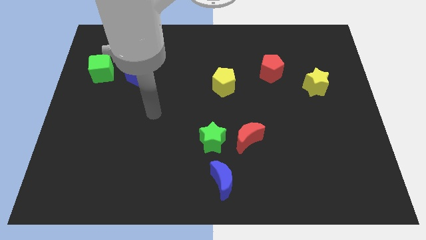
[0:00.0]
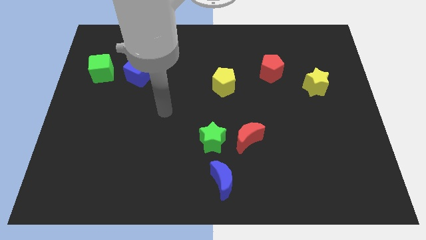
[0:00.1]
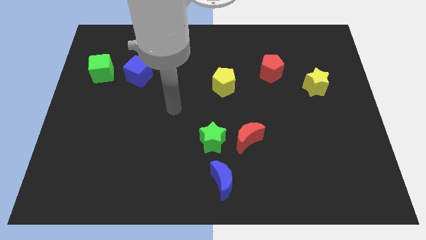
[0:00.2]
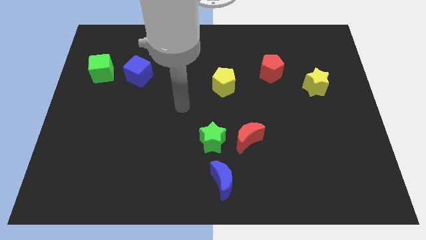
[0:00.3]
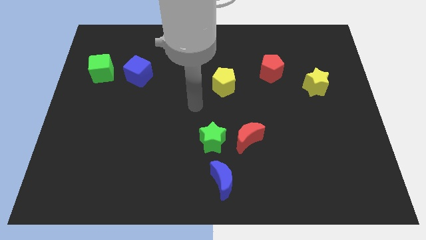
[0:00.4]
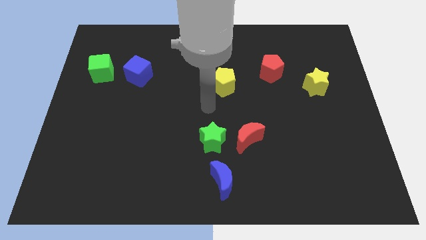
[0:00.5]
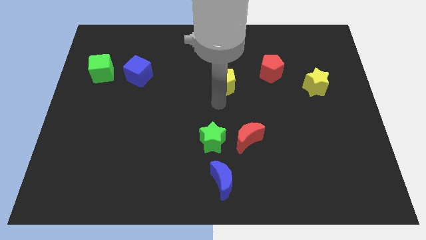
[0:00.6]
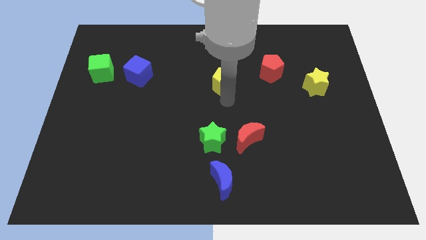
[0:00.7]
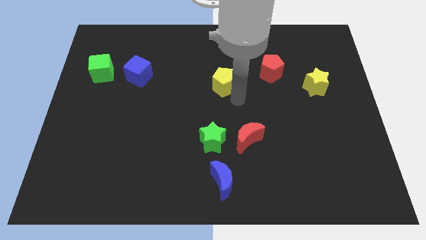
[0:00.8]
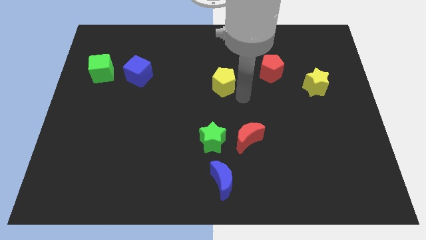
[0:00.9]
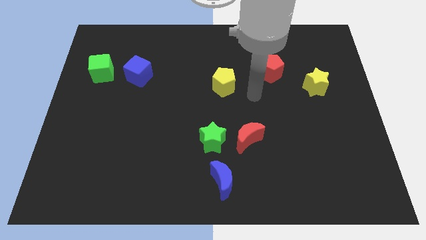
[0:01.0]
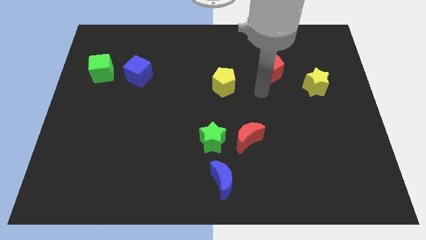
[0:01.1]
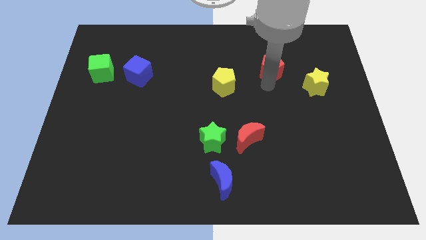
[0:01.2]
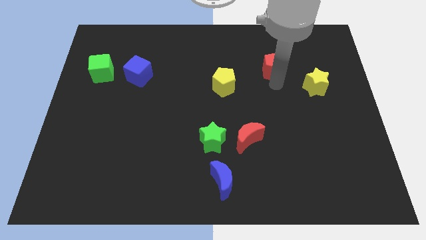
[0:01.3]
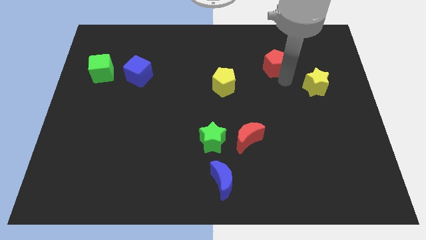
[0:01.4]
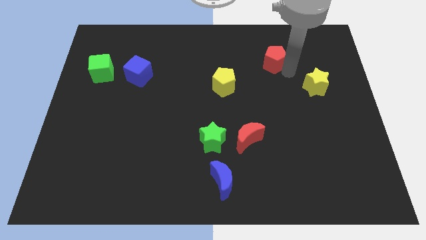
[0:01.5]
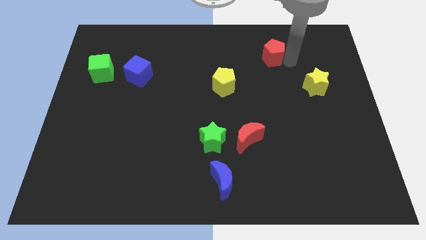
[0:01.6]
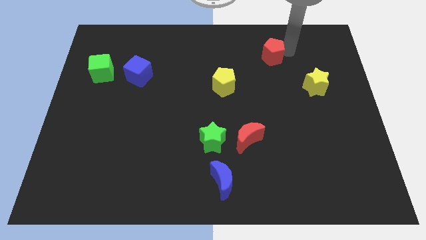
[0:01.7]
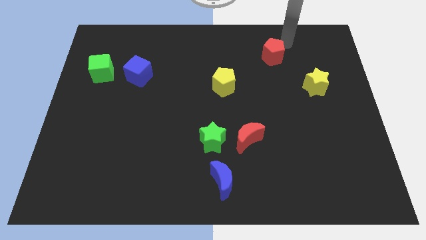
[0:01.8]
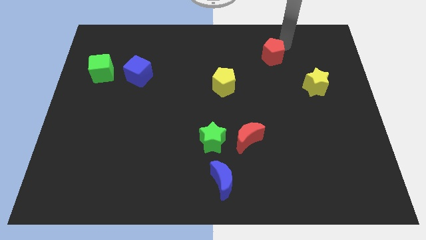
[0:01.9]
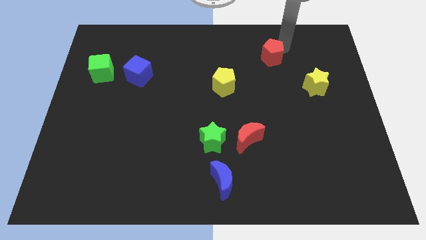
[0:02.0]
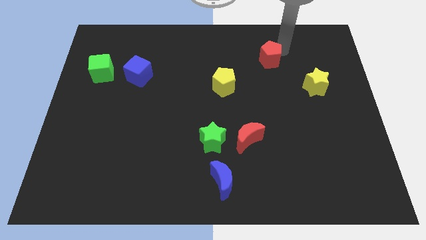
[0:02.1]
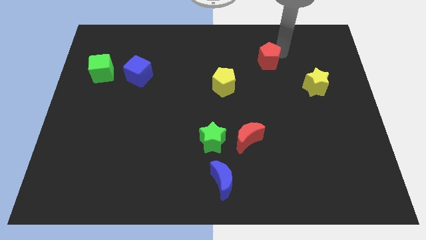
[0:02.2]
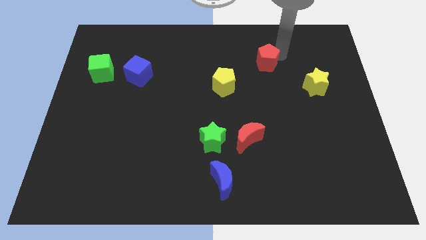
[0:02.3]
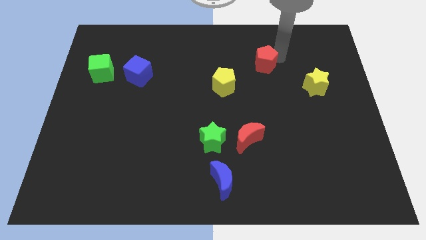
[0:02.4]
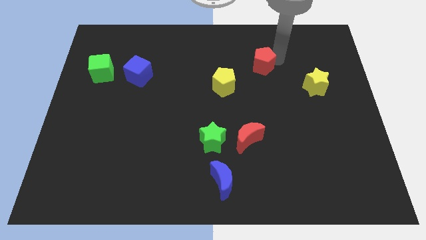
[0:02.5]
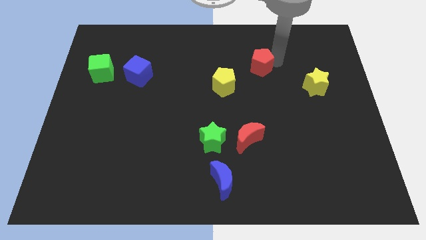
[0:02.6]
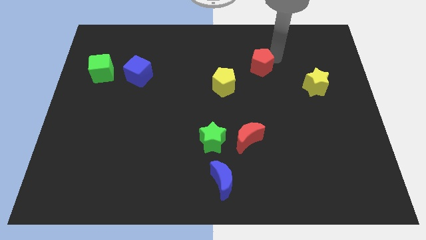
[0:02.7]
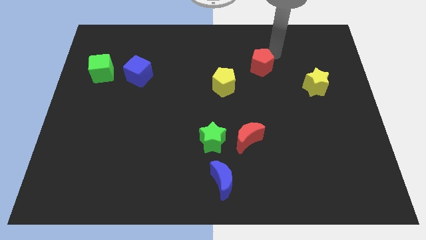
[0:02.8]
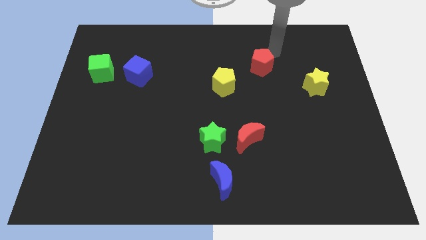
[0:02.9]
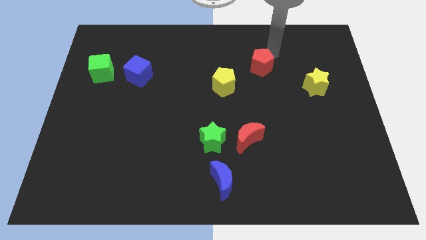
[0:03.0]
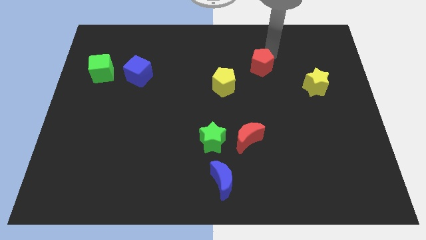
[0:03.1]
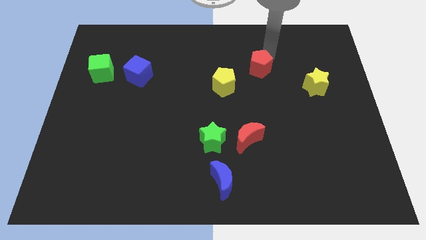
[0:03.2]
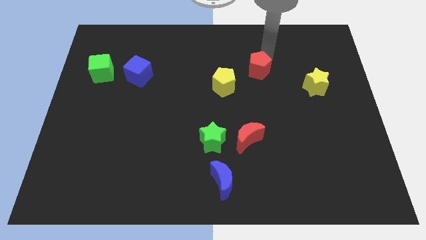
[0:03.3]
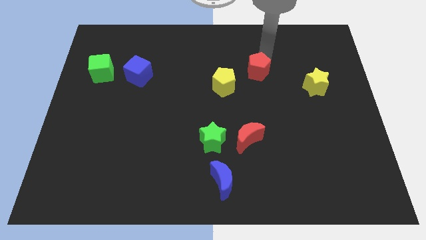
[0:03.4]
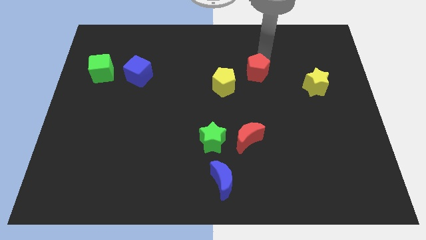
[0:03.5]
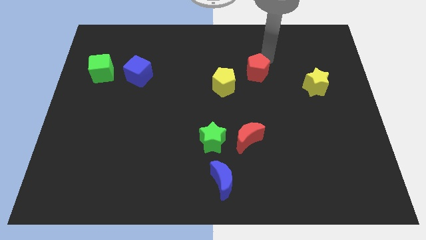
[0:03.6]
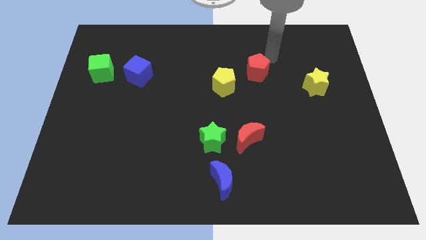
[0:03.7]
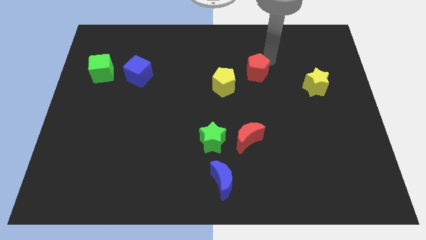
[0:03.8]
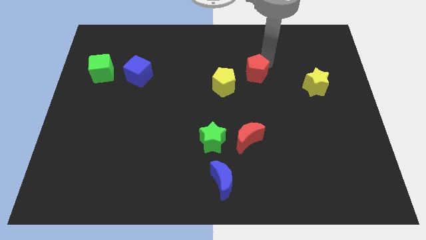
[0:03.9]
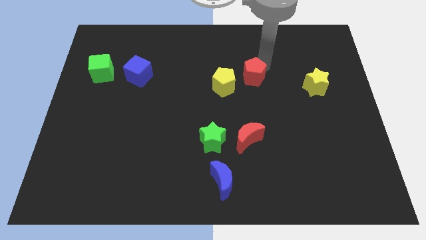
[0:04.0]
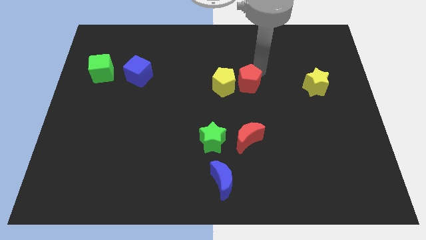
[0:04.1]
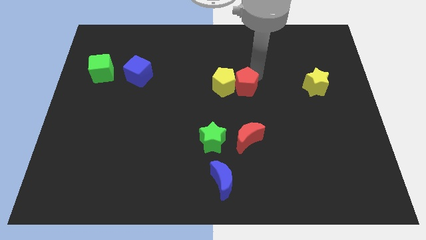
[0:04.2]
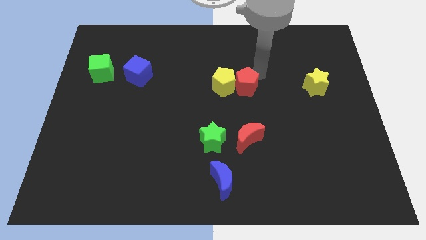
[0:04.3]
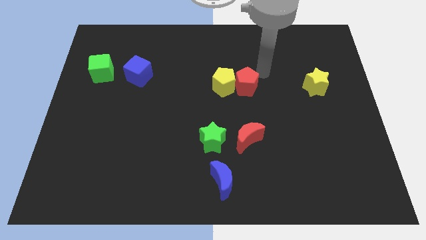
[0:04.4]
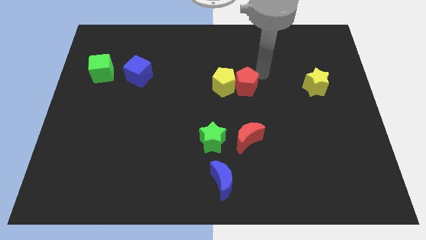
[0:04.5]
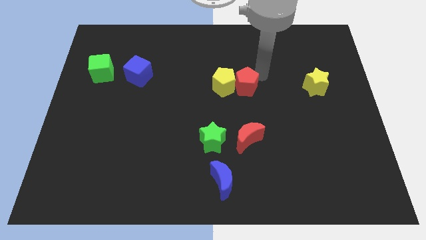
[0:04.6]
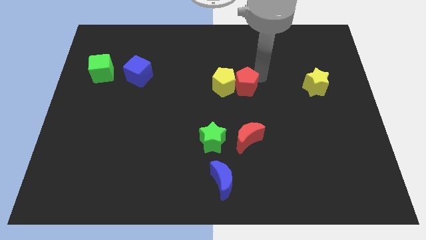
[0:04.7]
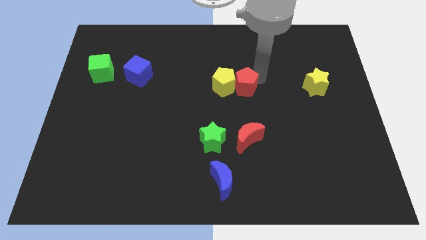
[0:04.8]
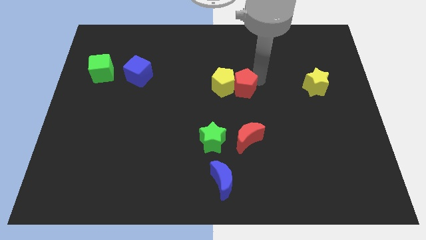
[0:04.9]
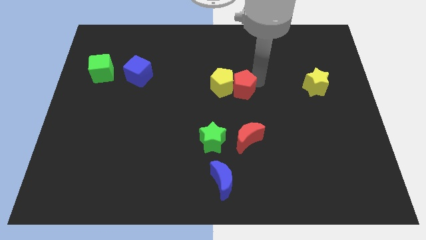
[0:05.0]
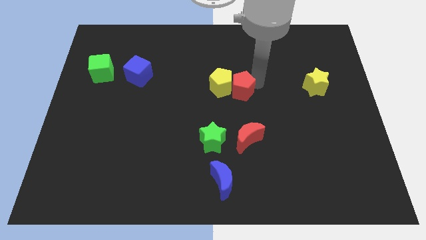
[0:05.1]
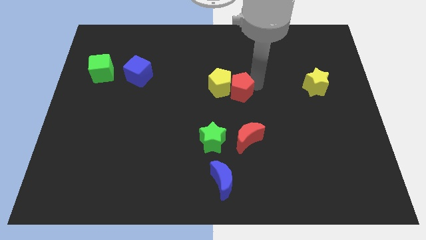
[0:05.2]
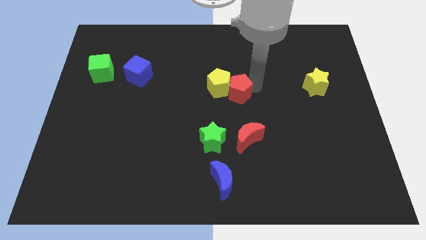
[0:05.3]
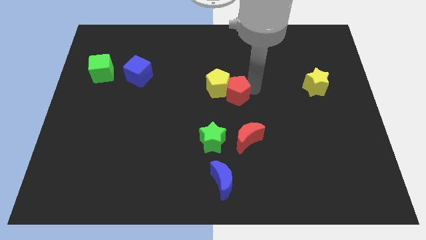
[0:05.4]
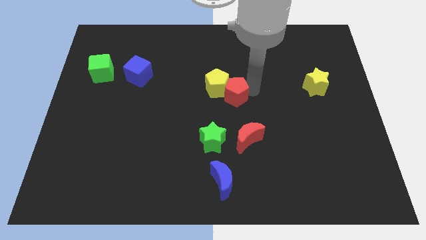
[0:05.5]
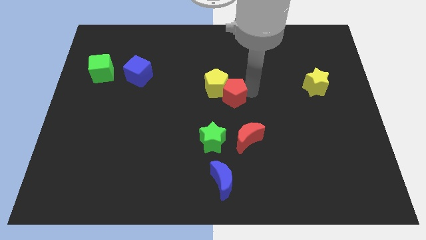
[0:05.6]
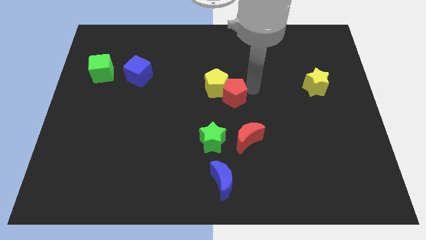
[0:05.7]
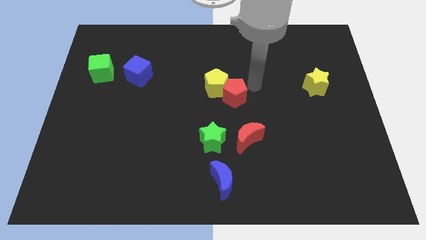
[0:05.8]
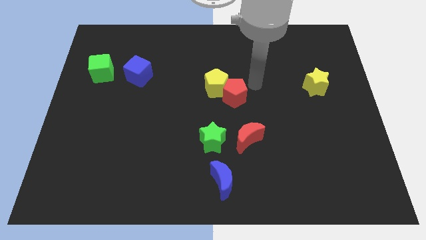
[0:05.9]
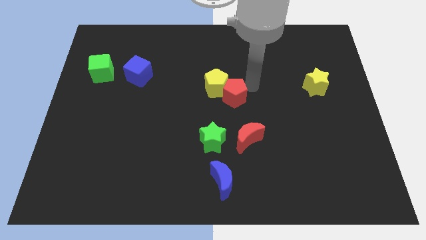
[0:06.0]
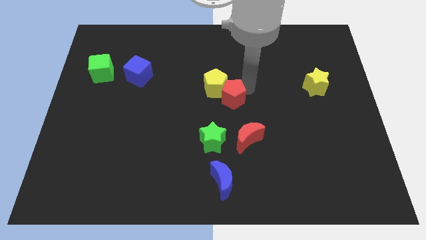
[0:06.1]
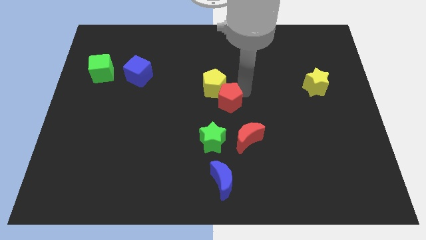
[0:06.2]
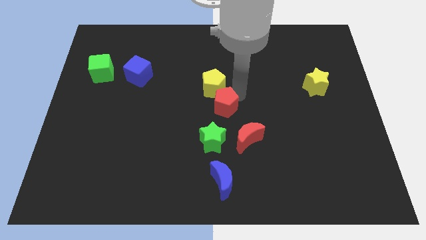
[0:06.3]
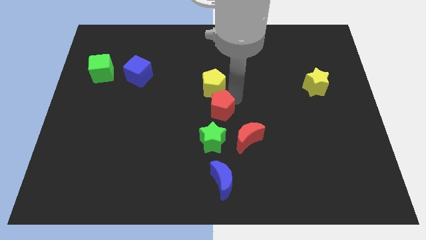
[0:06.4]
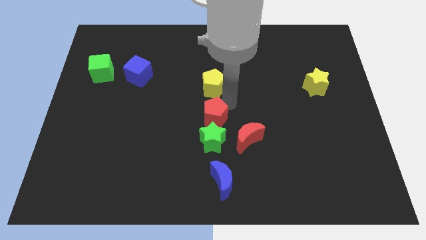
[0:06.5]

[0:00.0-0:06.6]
slide the red pentagon down and to the left

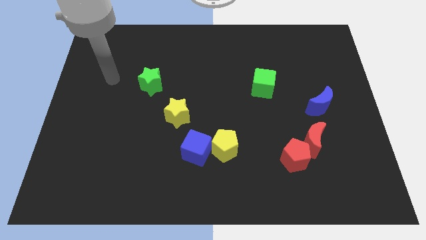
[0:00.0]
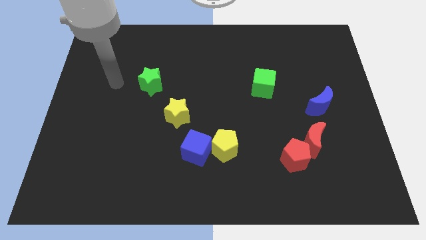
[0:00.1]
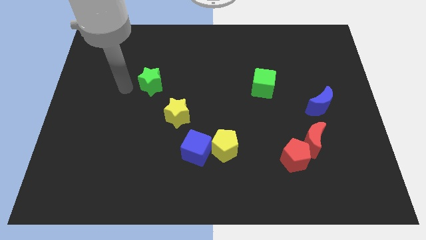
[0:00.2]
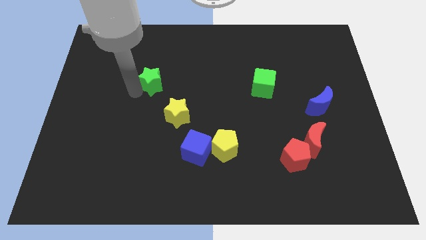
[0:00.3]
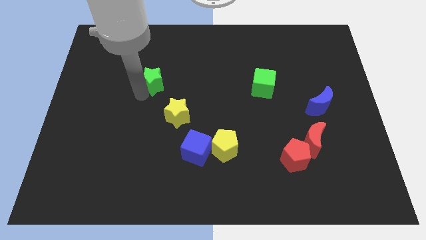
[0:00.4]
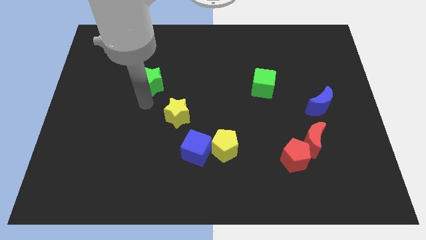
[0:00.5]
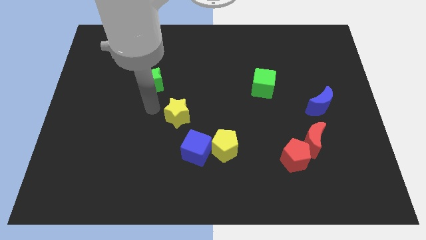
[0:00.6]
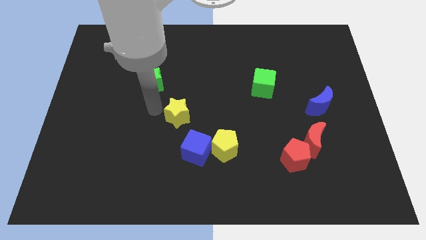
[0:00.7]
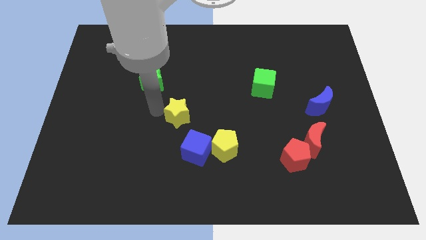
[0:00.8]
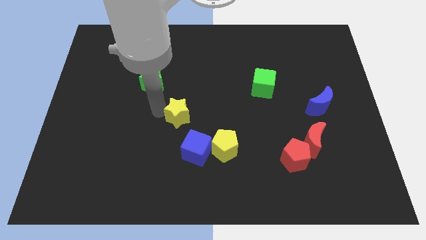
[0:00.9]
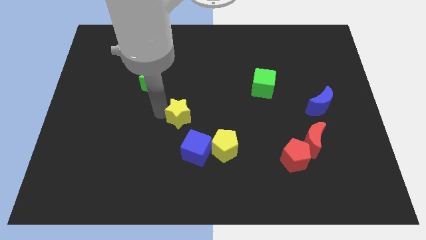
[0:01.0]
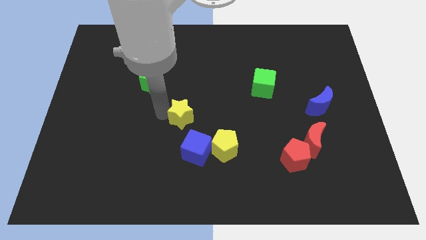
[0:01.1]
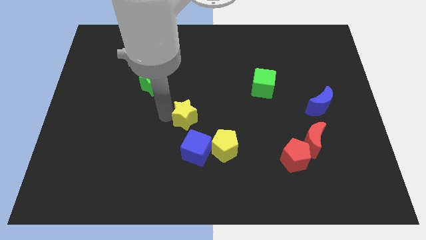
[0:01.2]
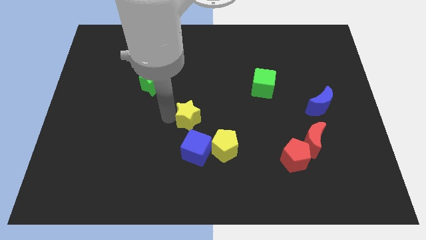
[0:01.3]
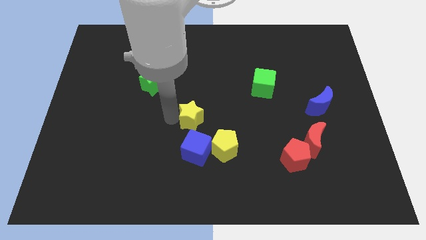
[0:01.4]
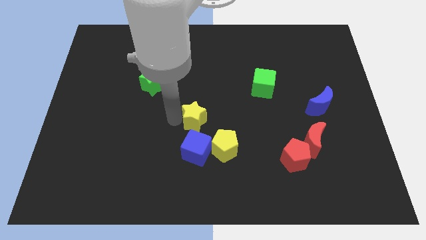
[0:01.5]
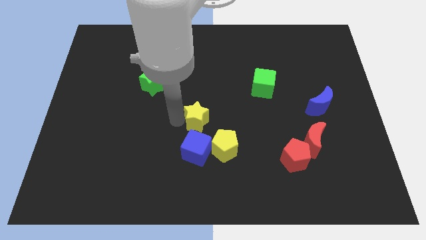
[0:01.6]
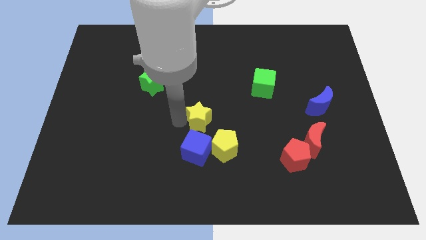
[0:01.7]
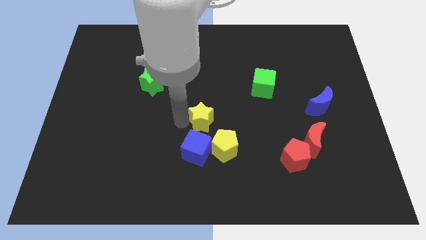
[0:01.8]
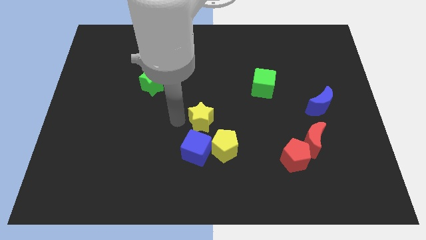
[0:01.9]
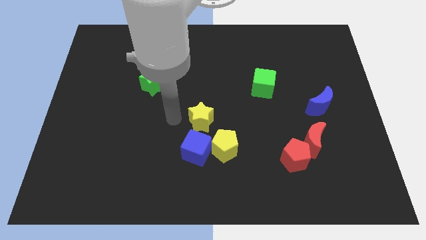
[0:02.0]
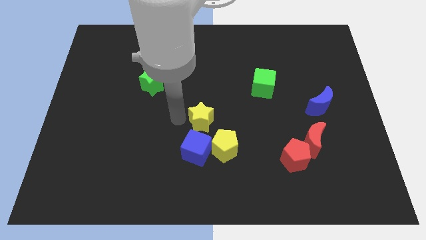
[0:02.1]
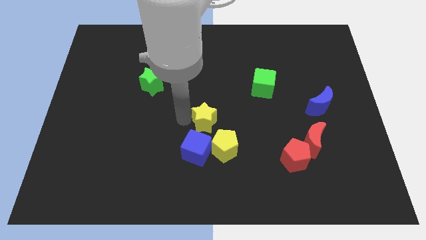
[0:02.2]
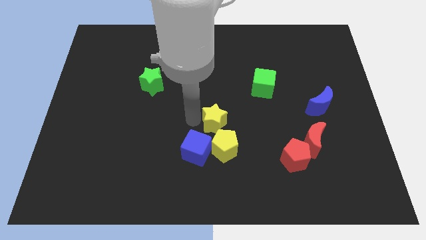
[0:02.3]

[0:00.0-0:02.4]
move the yellow star a little bit to the right
